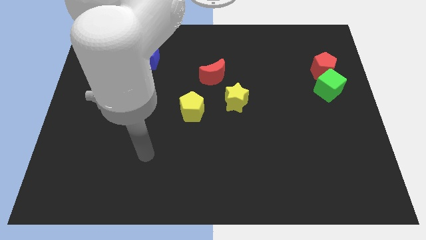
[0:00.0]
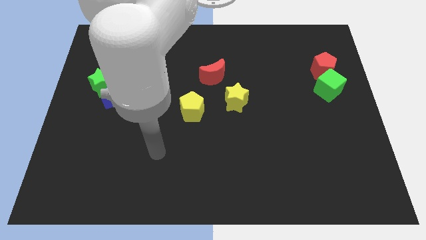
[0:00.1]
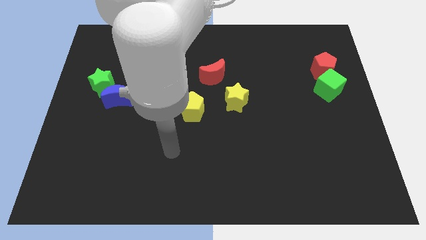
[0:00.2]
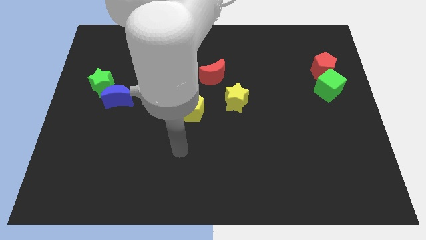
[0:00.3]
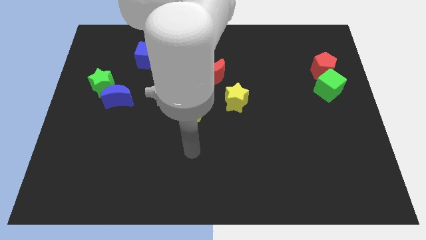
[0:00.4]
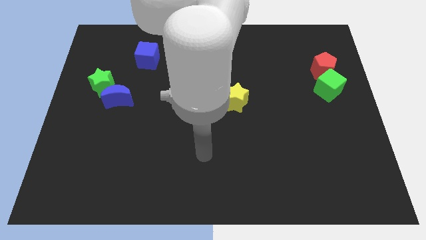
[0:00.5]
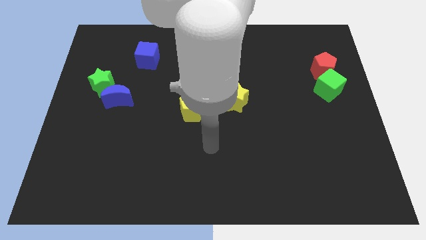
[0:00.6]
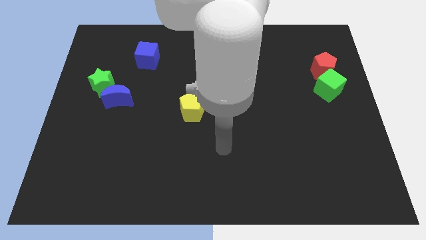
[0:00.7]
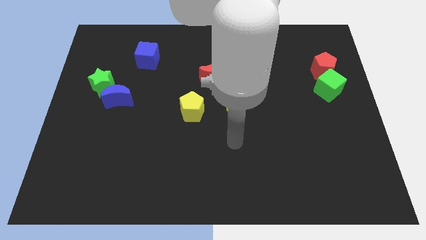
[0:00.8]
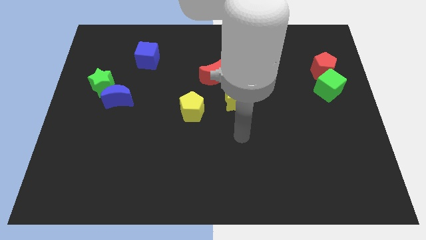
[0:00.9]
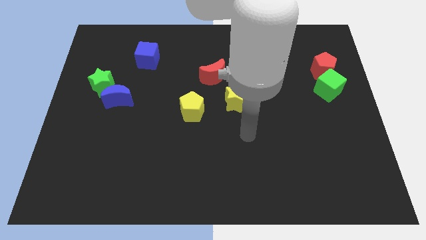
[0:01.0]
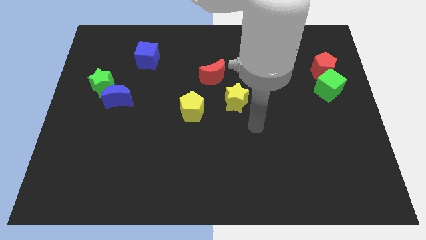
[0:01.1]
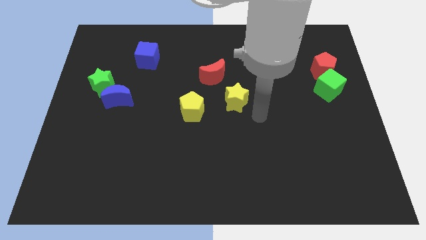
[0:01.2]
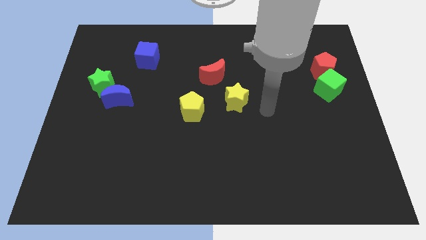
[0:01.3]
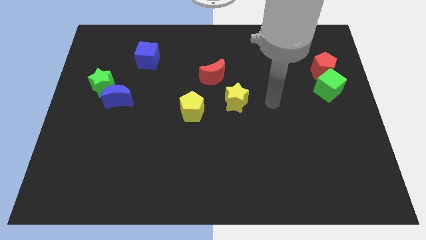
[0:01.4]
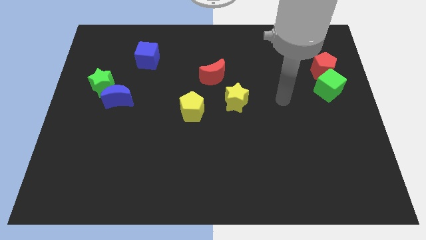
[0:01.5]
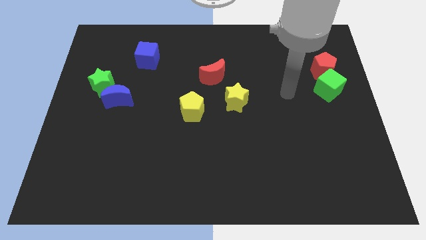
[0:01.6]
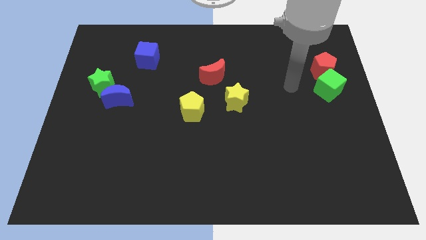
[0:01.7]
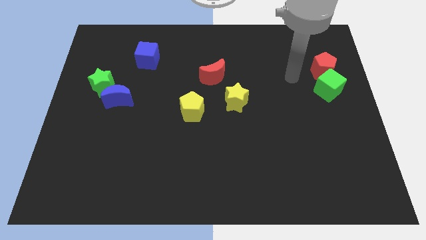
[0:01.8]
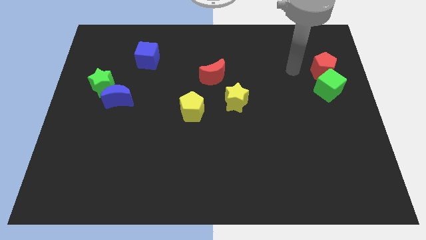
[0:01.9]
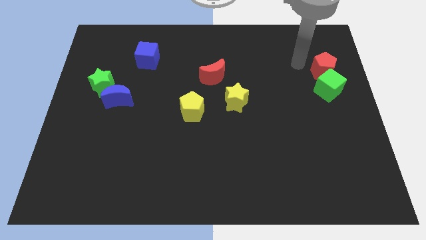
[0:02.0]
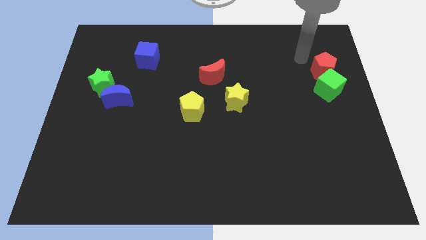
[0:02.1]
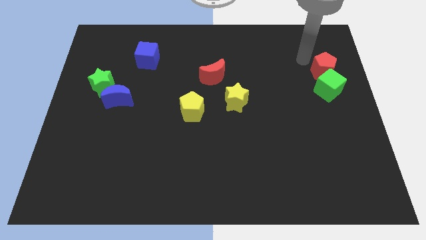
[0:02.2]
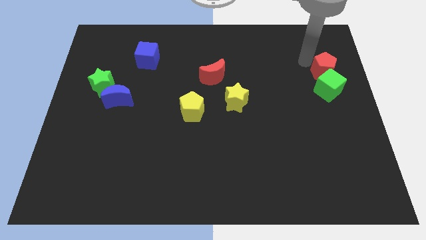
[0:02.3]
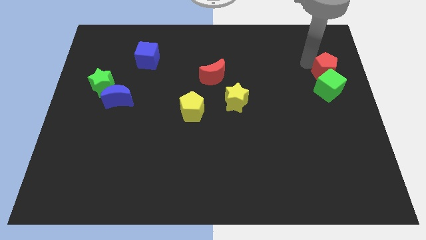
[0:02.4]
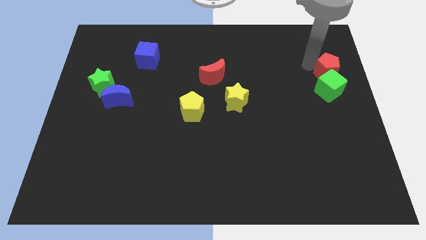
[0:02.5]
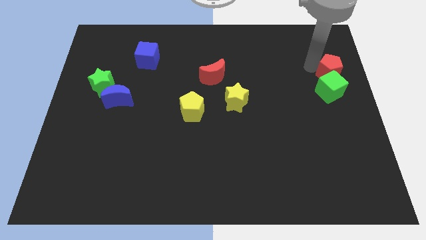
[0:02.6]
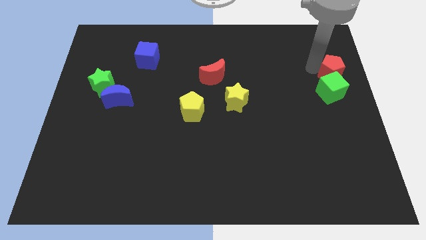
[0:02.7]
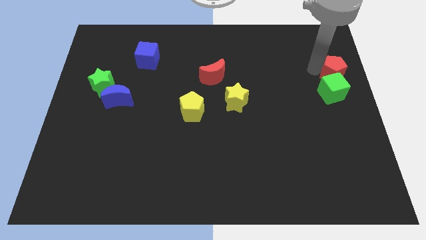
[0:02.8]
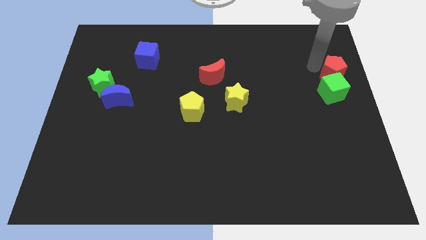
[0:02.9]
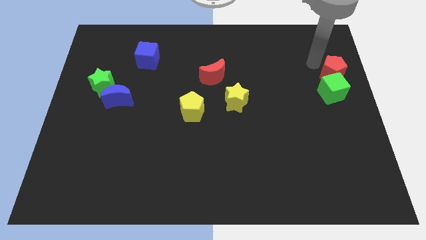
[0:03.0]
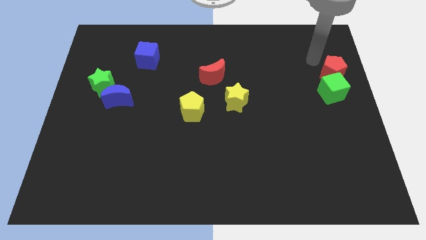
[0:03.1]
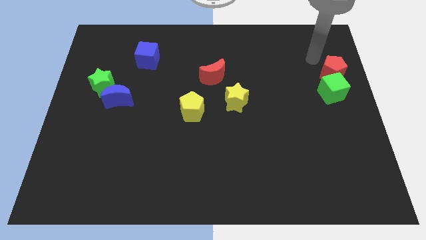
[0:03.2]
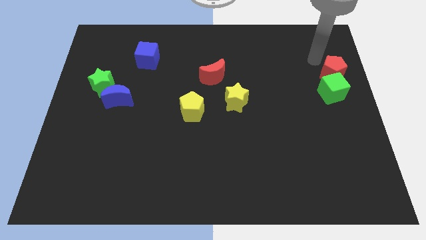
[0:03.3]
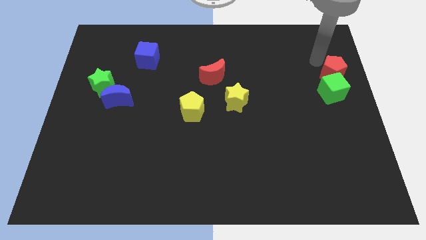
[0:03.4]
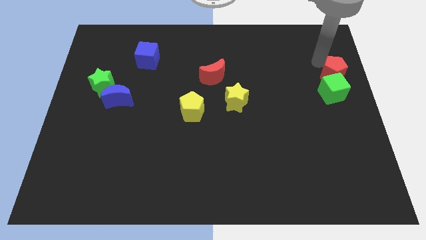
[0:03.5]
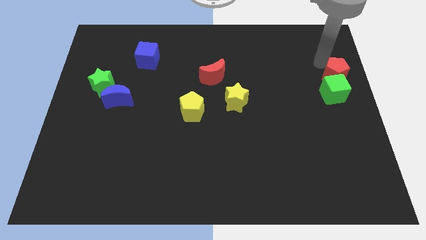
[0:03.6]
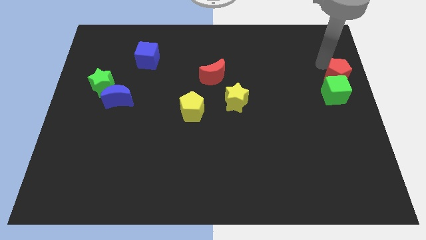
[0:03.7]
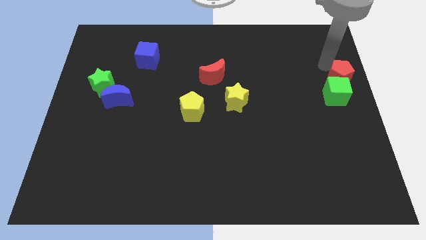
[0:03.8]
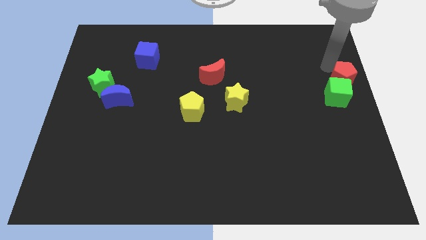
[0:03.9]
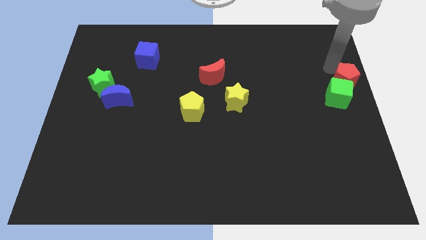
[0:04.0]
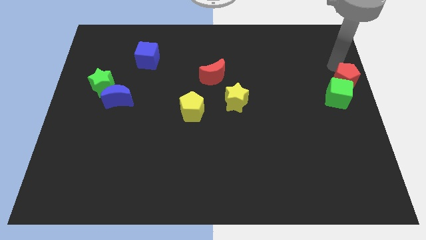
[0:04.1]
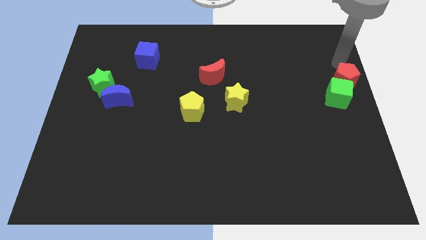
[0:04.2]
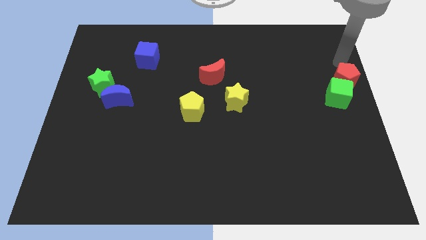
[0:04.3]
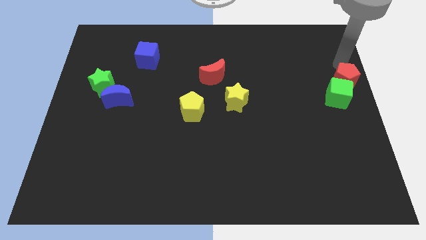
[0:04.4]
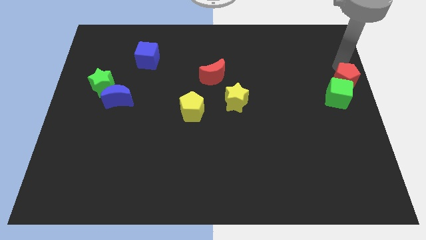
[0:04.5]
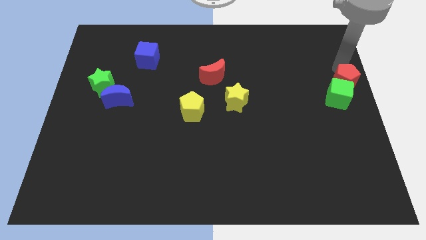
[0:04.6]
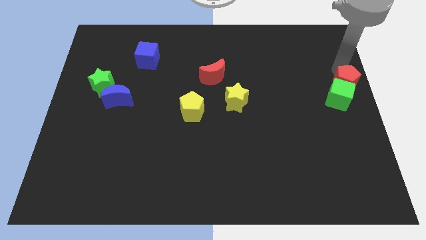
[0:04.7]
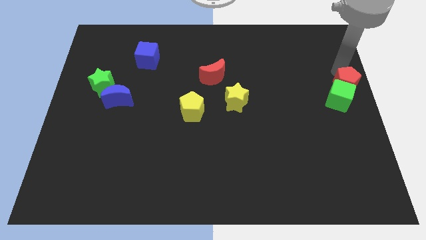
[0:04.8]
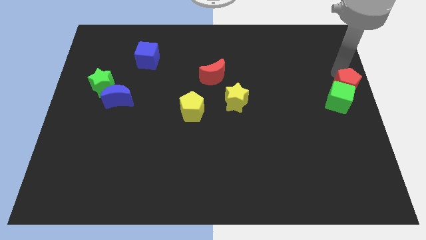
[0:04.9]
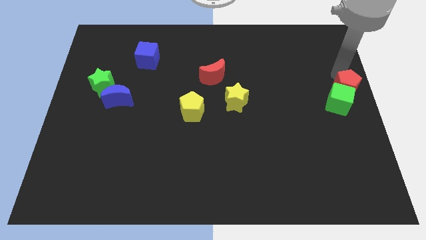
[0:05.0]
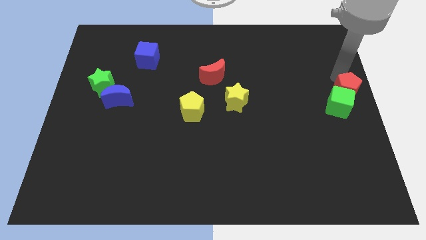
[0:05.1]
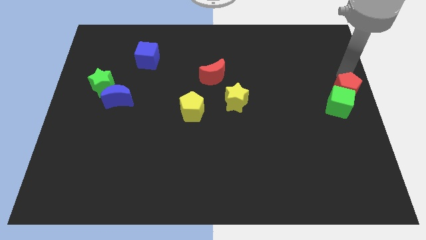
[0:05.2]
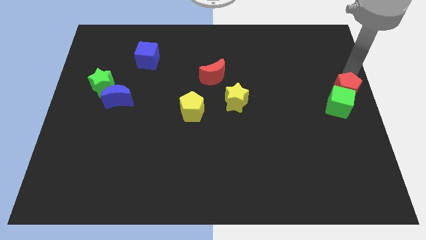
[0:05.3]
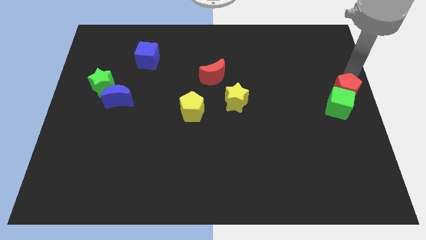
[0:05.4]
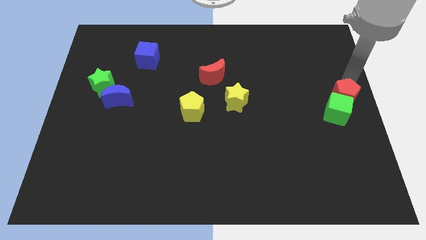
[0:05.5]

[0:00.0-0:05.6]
slightly slide the red pentagon down

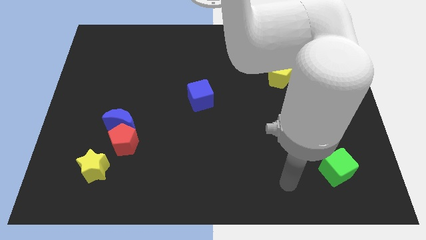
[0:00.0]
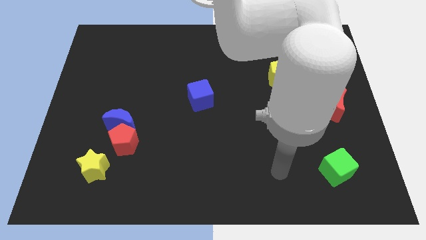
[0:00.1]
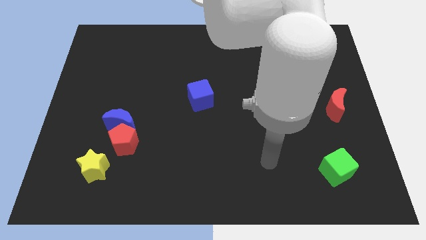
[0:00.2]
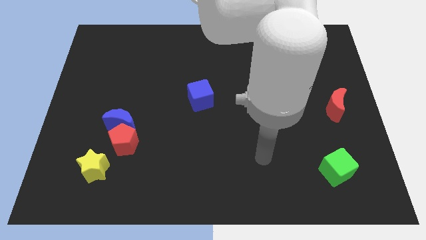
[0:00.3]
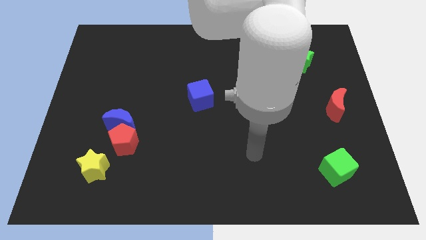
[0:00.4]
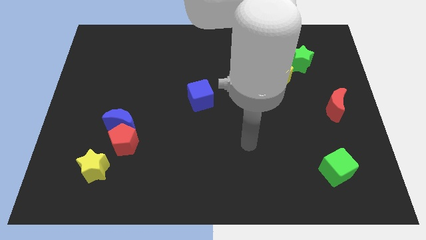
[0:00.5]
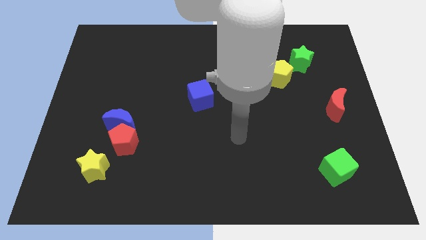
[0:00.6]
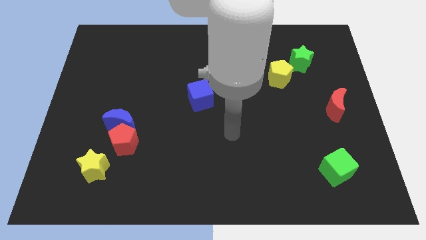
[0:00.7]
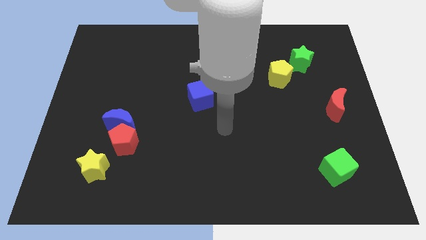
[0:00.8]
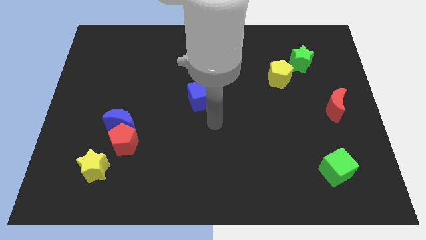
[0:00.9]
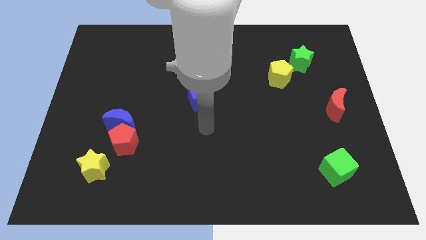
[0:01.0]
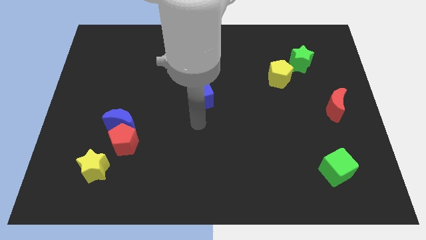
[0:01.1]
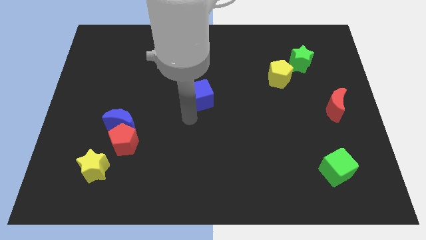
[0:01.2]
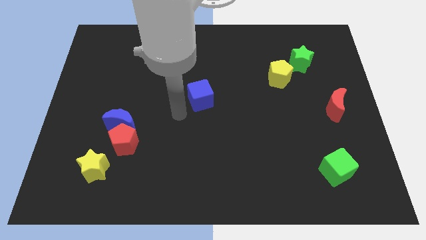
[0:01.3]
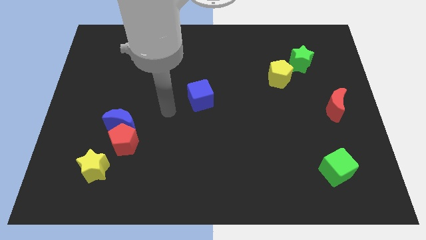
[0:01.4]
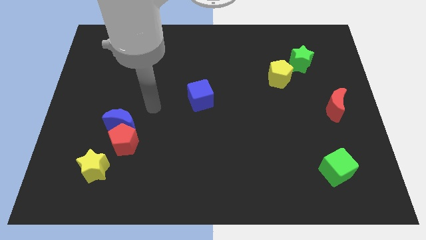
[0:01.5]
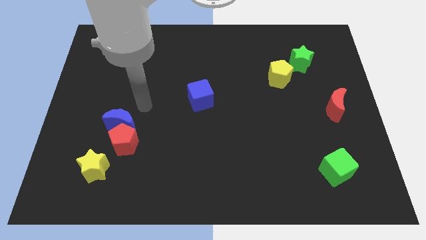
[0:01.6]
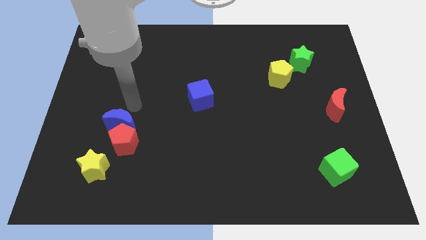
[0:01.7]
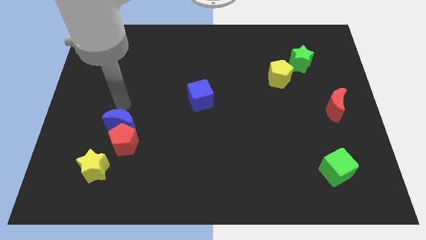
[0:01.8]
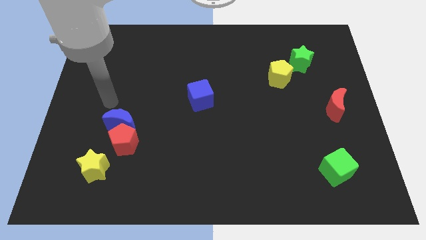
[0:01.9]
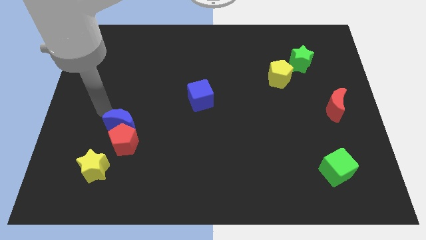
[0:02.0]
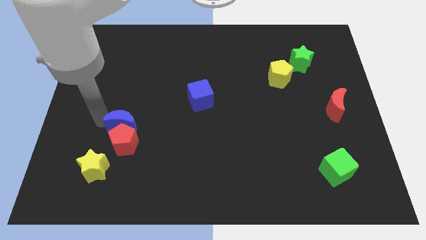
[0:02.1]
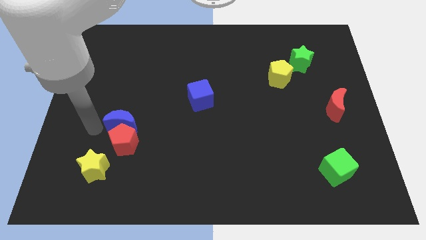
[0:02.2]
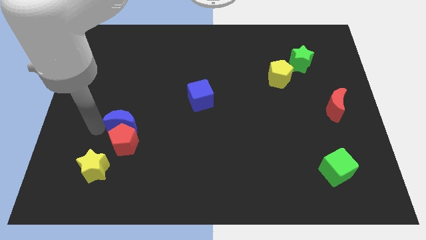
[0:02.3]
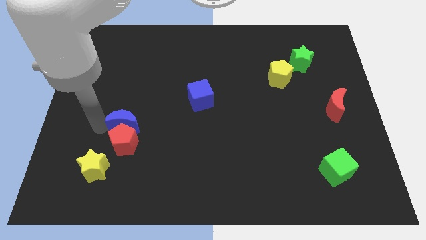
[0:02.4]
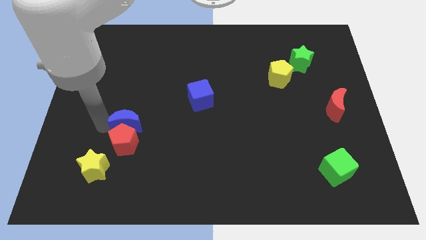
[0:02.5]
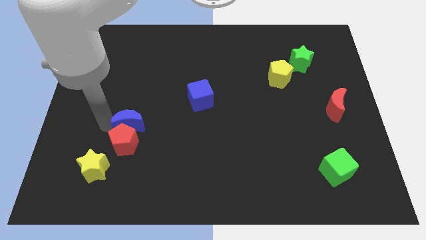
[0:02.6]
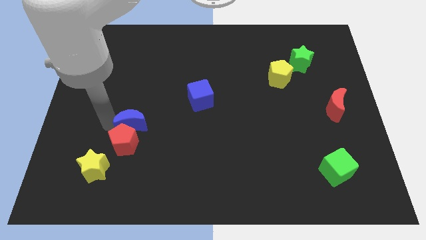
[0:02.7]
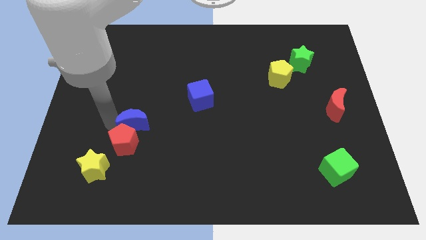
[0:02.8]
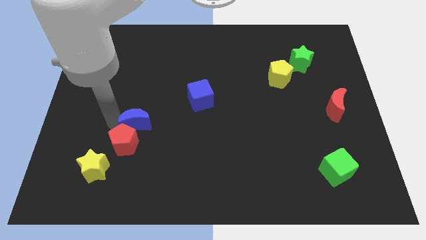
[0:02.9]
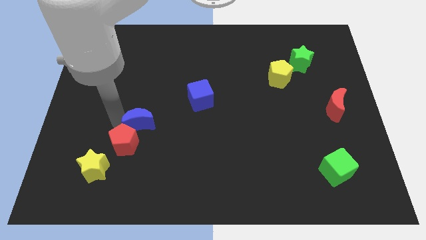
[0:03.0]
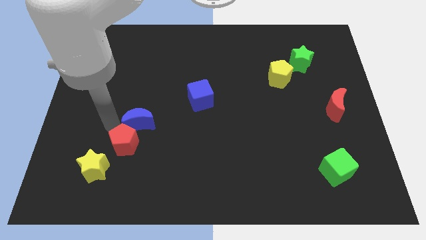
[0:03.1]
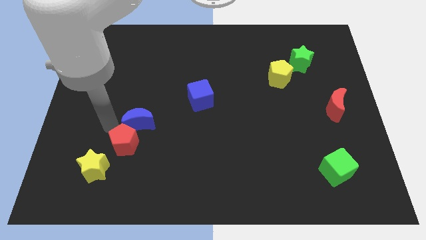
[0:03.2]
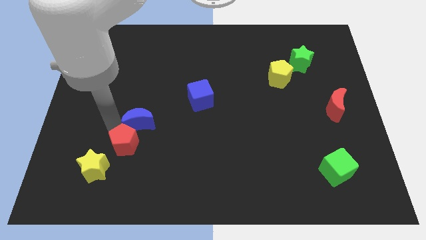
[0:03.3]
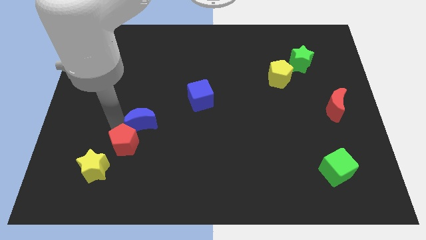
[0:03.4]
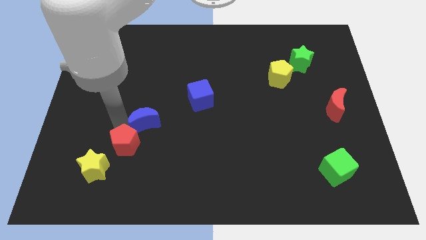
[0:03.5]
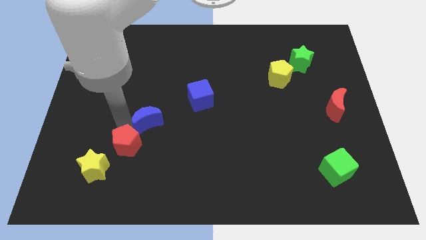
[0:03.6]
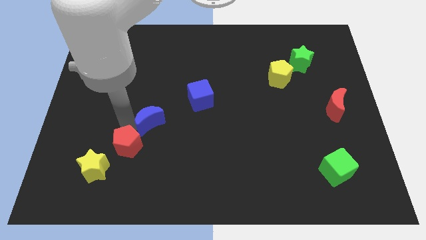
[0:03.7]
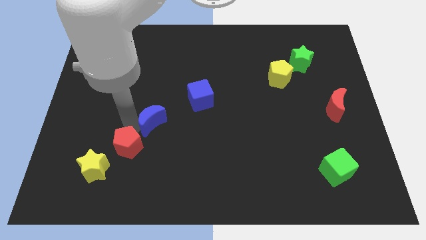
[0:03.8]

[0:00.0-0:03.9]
move the blue moon slightly to the right
